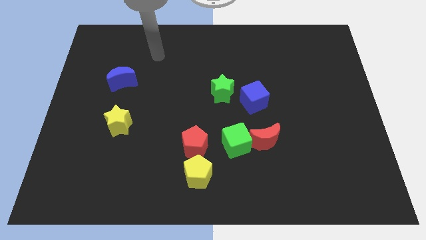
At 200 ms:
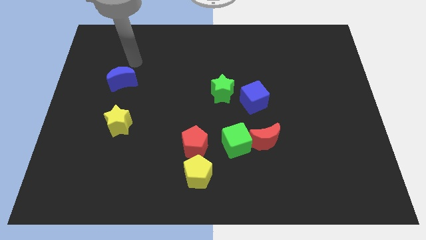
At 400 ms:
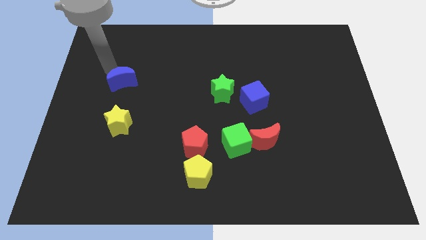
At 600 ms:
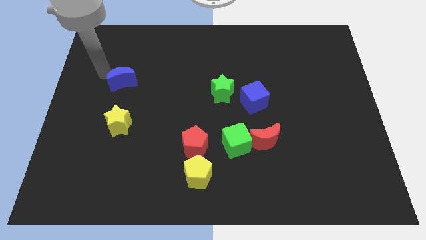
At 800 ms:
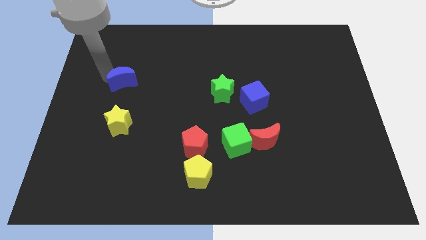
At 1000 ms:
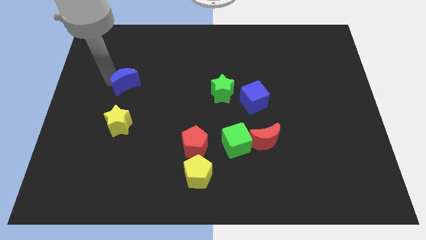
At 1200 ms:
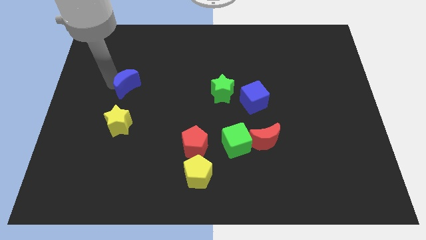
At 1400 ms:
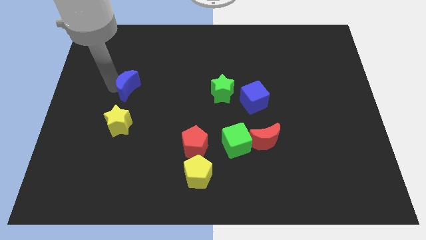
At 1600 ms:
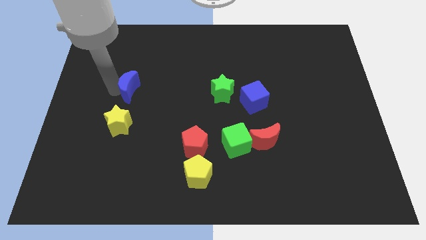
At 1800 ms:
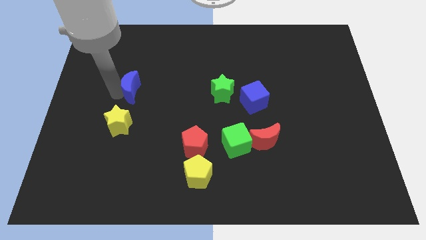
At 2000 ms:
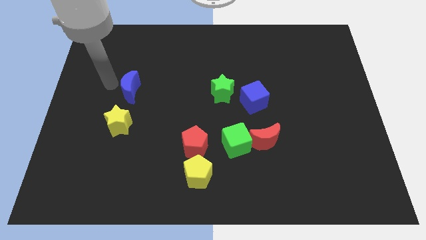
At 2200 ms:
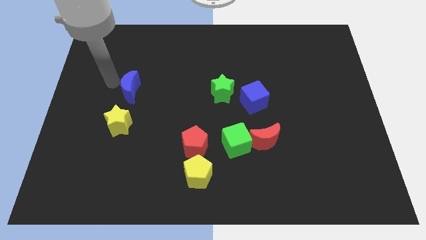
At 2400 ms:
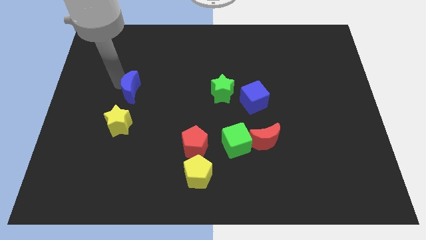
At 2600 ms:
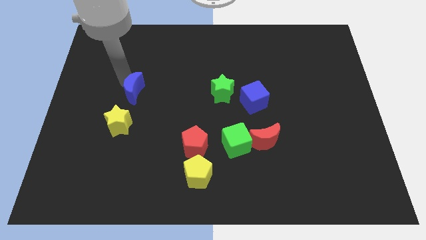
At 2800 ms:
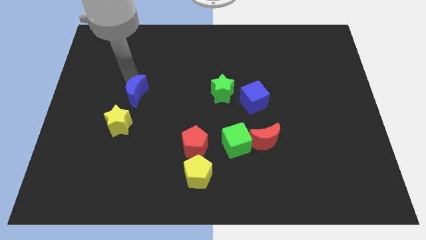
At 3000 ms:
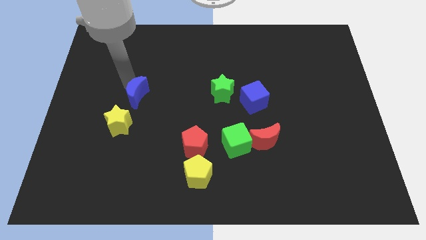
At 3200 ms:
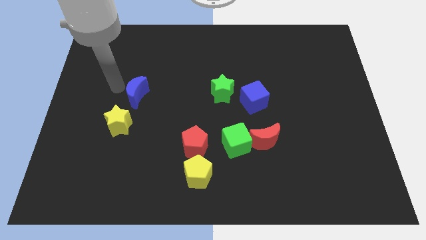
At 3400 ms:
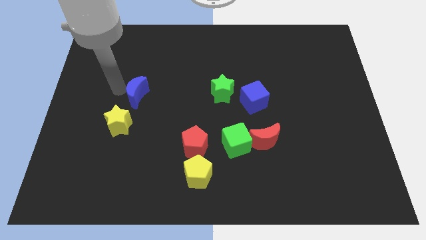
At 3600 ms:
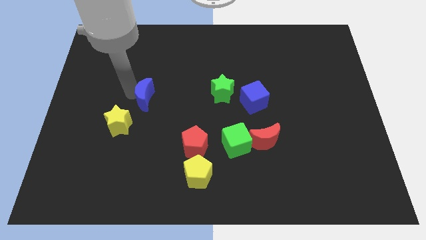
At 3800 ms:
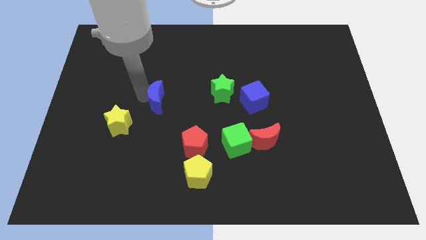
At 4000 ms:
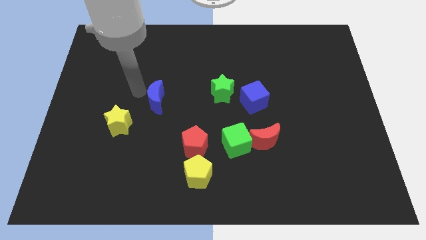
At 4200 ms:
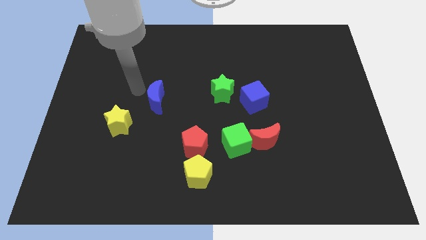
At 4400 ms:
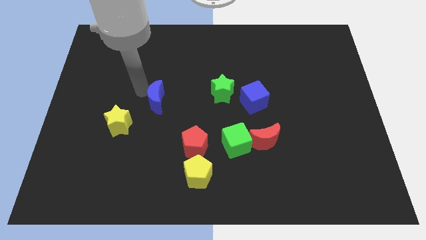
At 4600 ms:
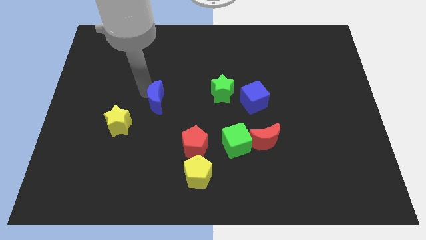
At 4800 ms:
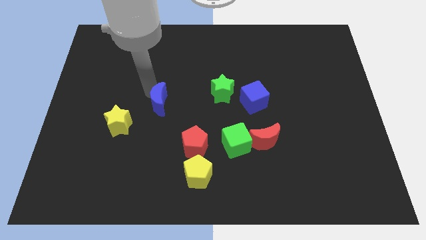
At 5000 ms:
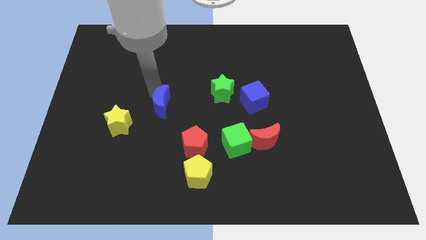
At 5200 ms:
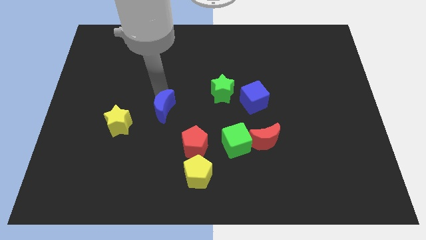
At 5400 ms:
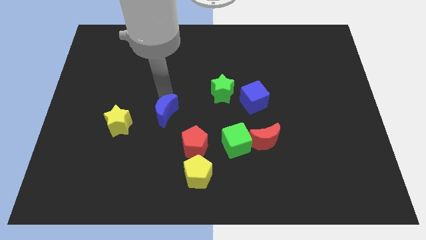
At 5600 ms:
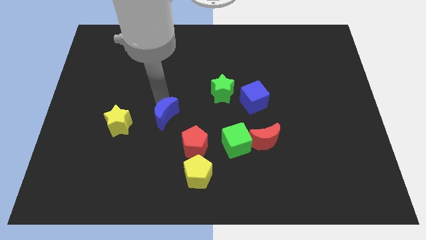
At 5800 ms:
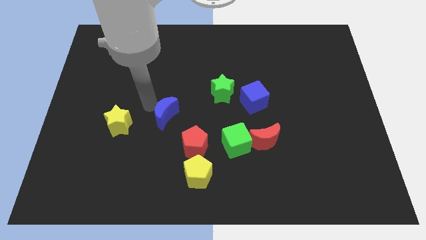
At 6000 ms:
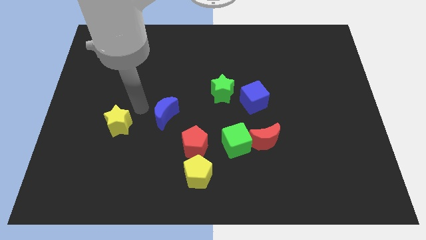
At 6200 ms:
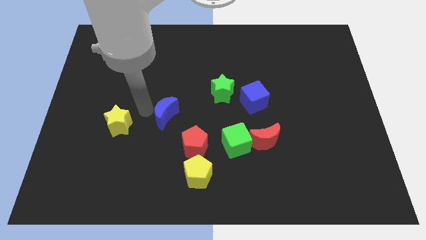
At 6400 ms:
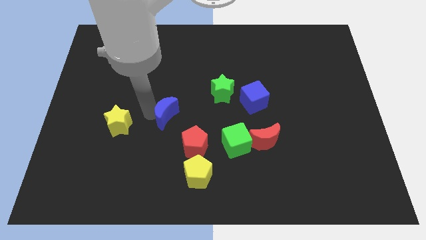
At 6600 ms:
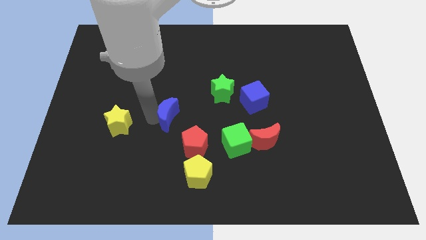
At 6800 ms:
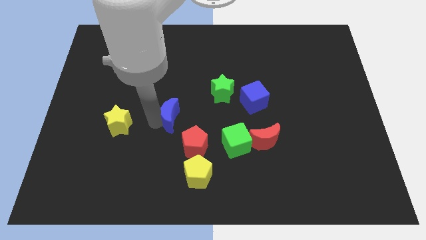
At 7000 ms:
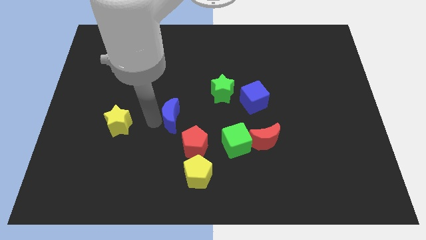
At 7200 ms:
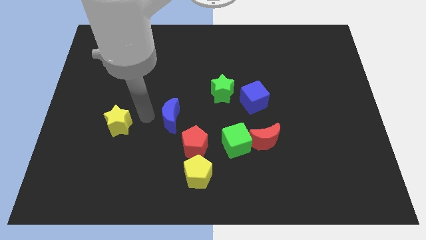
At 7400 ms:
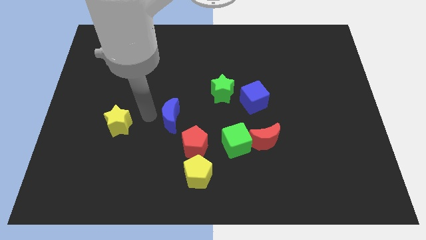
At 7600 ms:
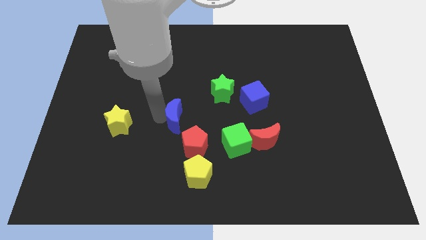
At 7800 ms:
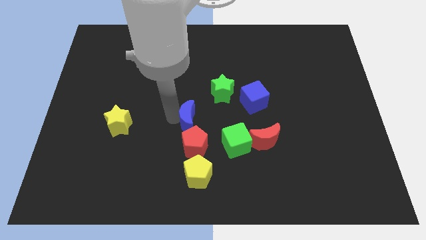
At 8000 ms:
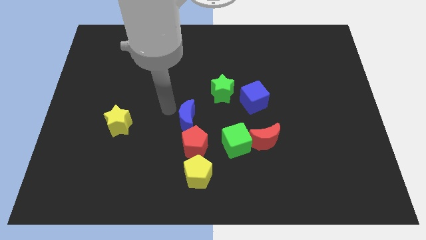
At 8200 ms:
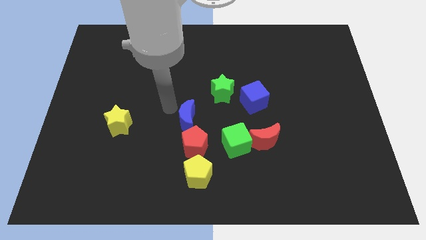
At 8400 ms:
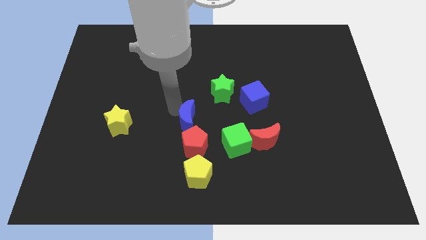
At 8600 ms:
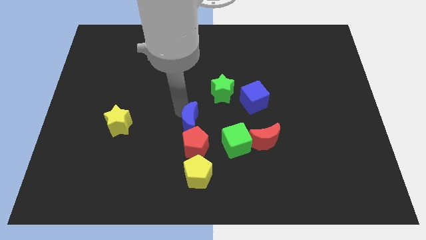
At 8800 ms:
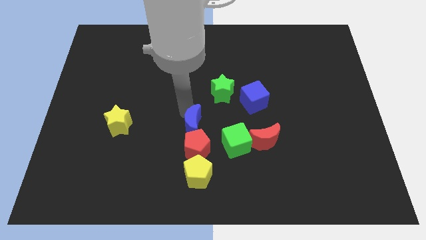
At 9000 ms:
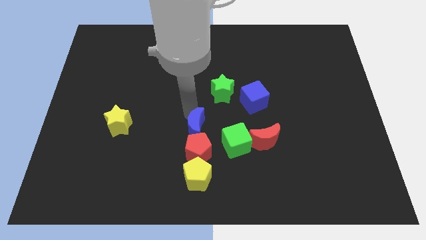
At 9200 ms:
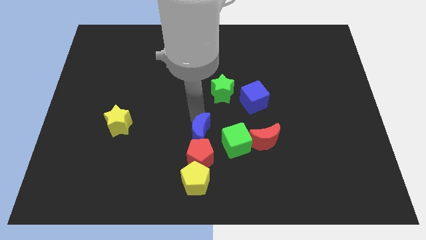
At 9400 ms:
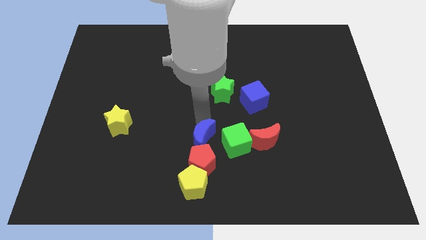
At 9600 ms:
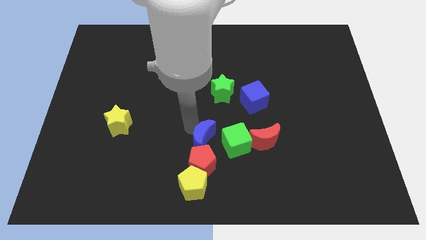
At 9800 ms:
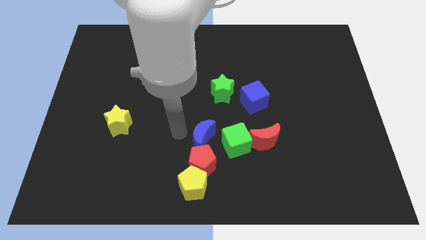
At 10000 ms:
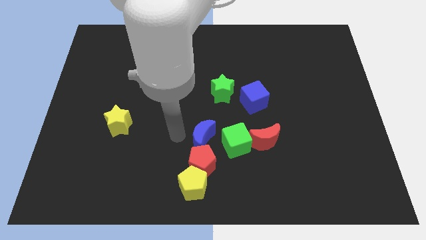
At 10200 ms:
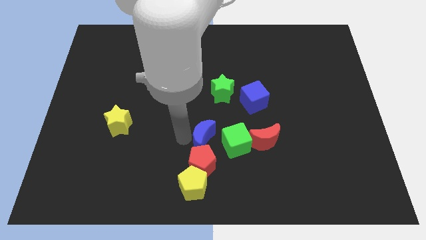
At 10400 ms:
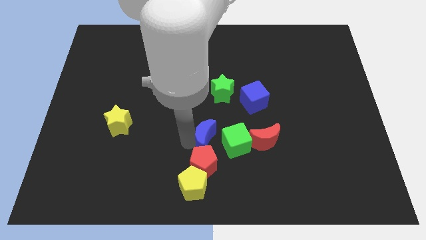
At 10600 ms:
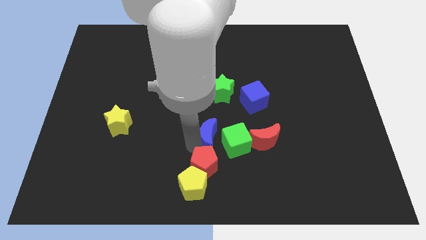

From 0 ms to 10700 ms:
push the blue moon next to the green cube
